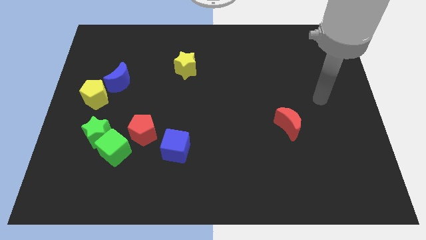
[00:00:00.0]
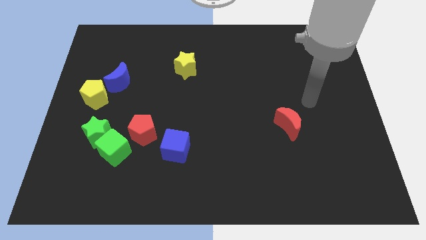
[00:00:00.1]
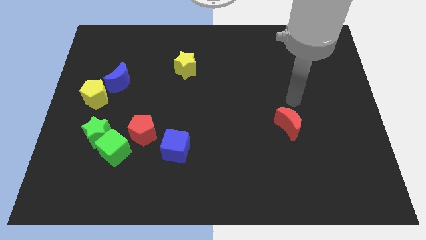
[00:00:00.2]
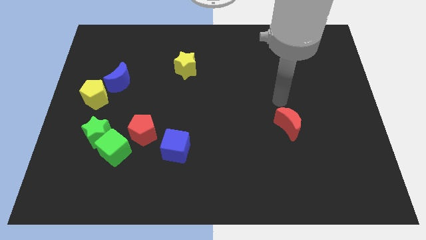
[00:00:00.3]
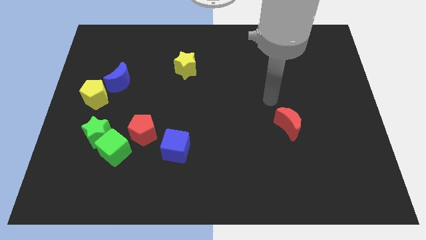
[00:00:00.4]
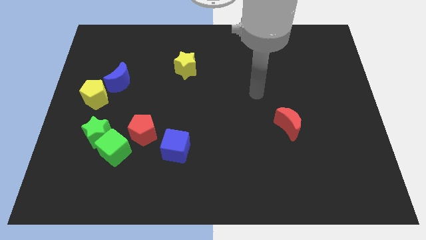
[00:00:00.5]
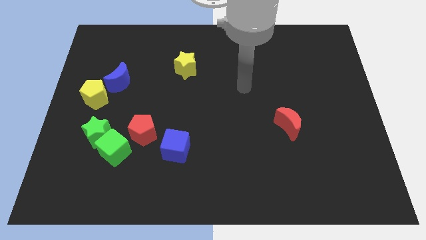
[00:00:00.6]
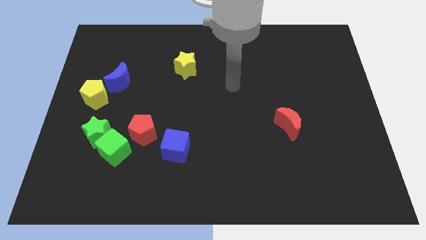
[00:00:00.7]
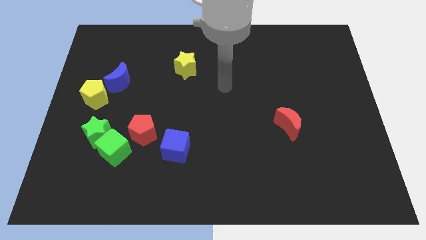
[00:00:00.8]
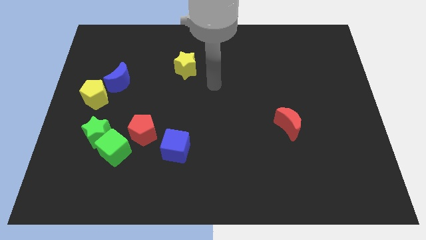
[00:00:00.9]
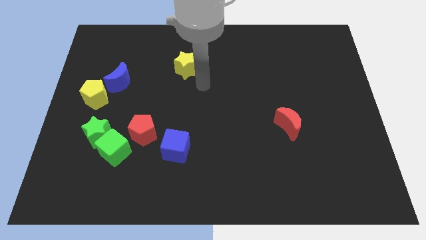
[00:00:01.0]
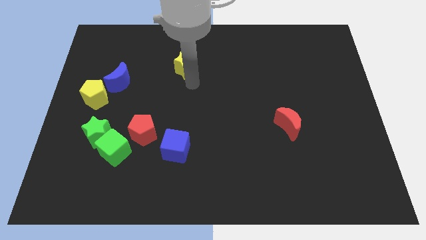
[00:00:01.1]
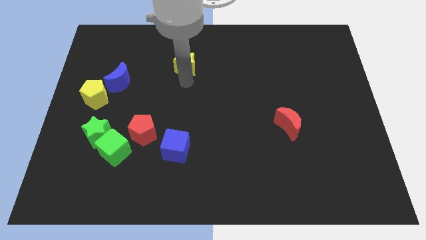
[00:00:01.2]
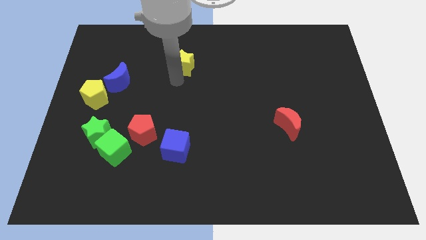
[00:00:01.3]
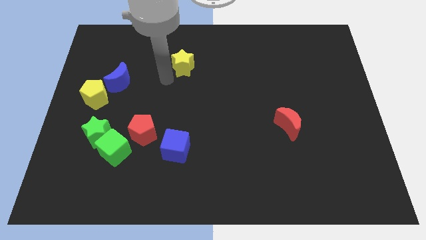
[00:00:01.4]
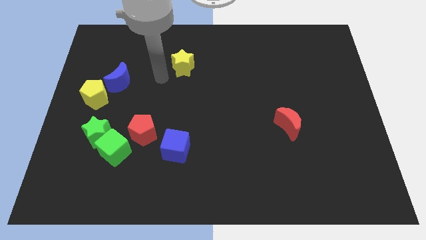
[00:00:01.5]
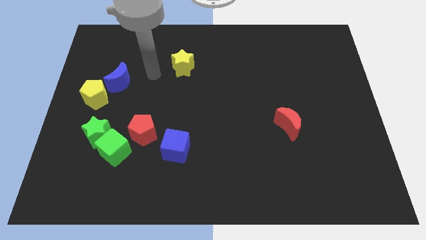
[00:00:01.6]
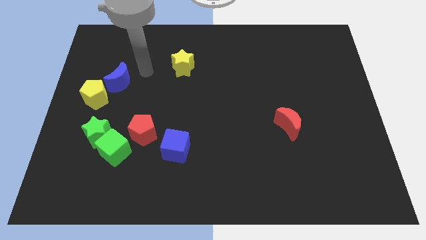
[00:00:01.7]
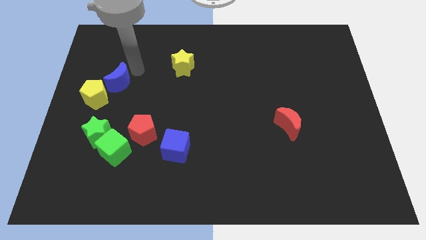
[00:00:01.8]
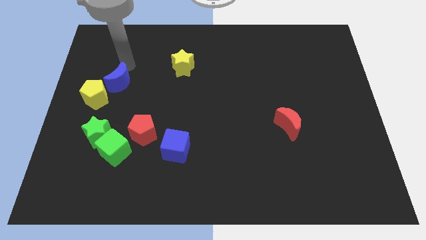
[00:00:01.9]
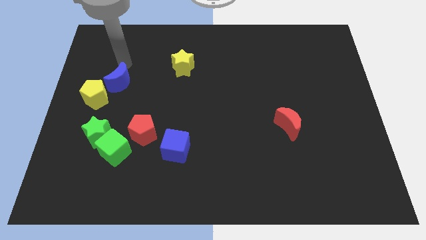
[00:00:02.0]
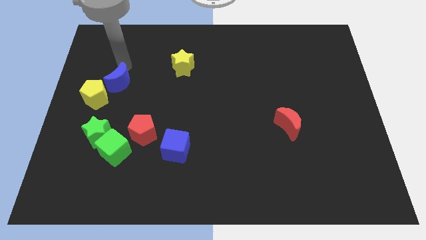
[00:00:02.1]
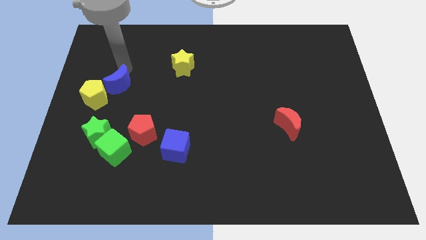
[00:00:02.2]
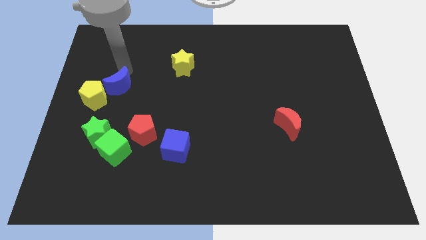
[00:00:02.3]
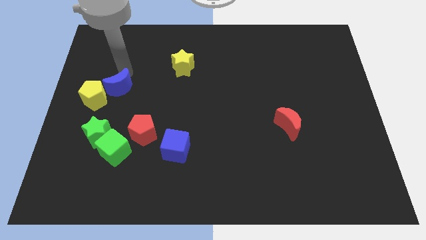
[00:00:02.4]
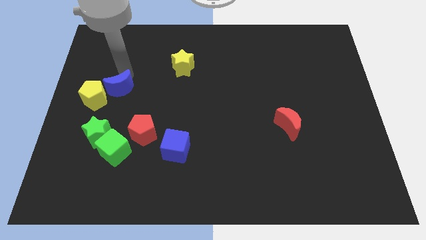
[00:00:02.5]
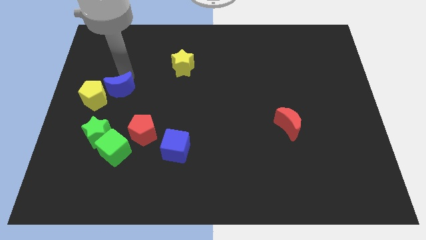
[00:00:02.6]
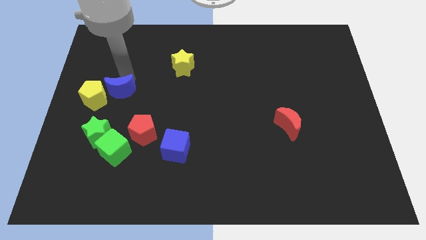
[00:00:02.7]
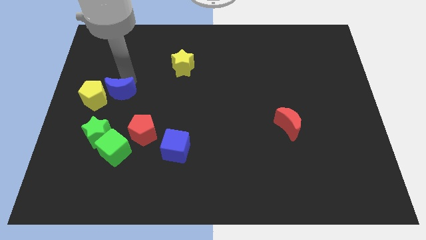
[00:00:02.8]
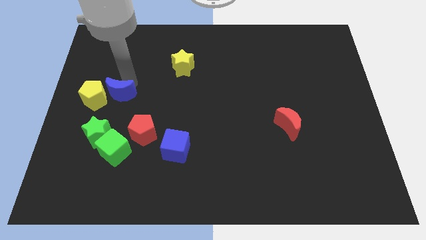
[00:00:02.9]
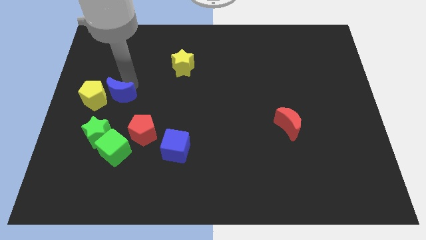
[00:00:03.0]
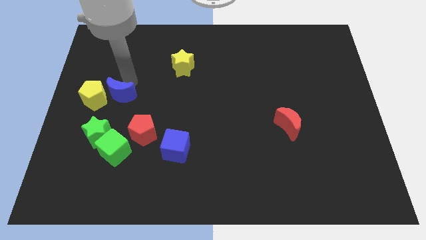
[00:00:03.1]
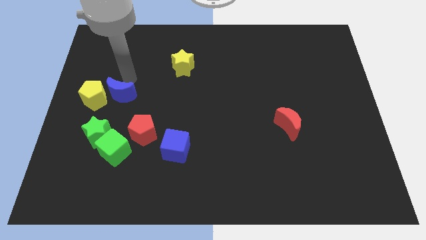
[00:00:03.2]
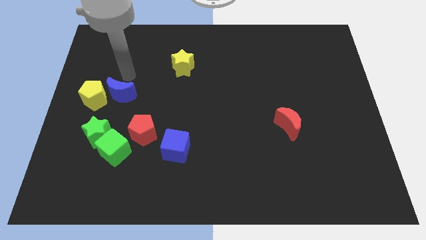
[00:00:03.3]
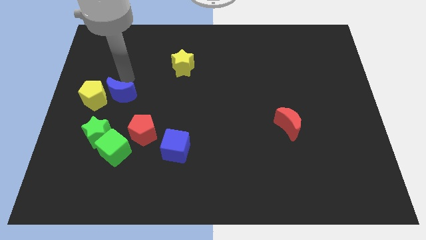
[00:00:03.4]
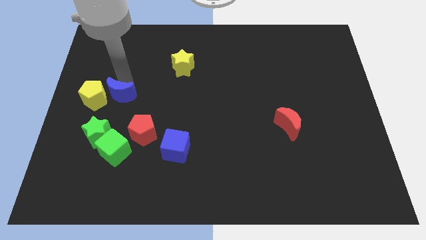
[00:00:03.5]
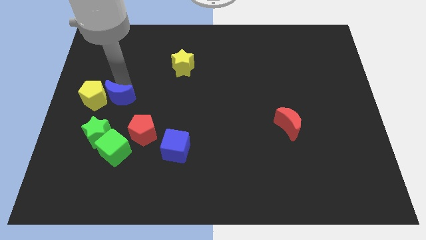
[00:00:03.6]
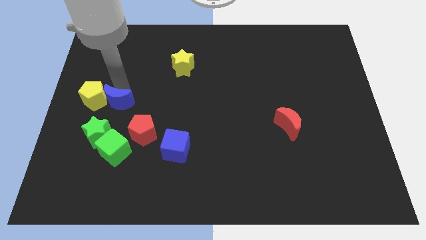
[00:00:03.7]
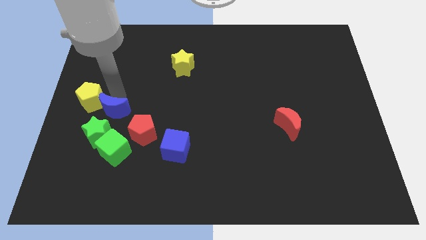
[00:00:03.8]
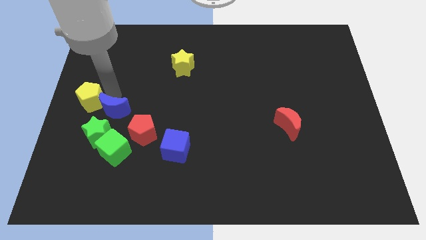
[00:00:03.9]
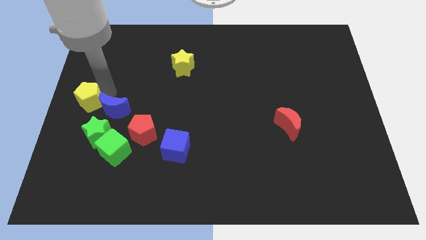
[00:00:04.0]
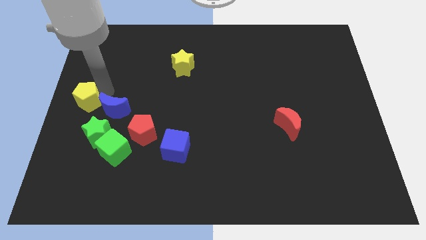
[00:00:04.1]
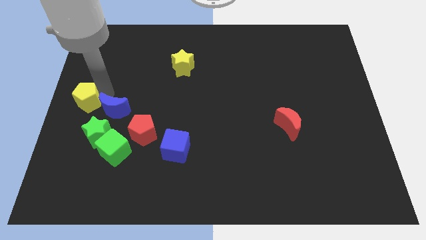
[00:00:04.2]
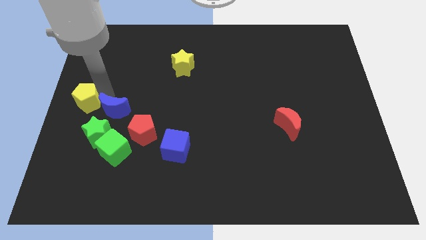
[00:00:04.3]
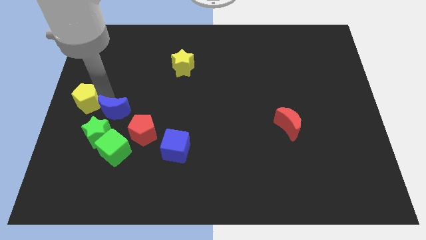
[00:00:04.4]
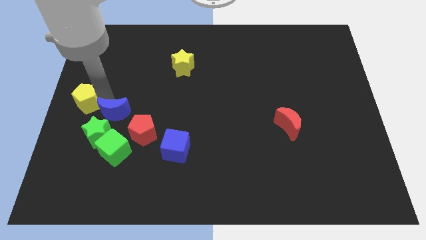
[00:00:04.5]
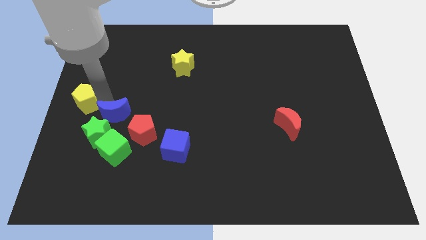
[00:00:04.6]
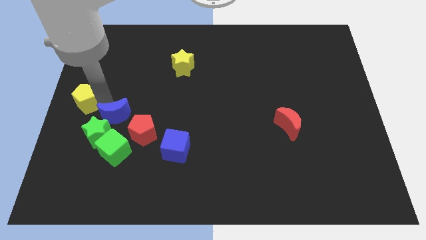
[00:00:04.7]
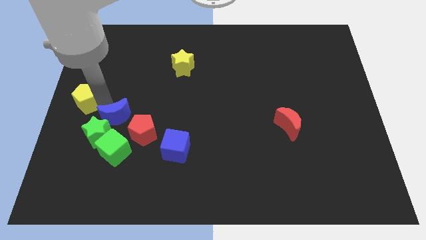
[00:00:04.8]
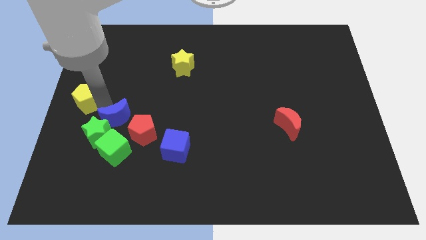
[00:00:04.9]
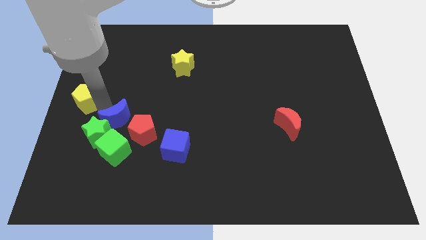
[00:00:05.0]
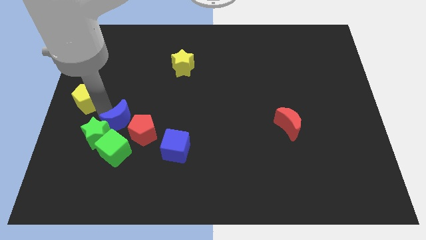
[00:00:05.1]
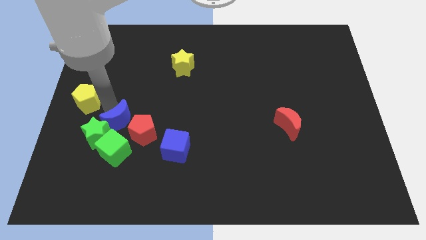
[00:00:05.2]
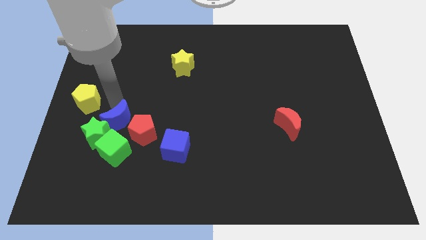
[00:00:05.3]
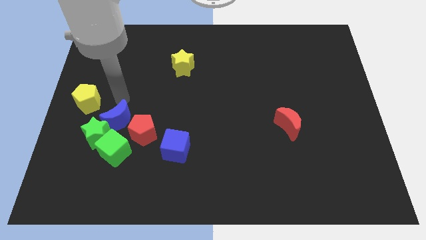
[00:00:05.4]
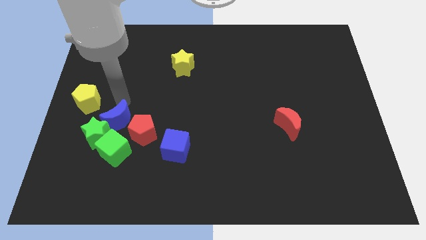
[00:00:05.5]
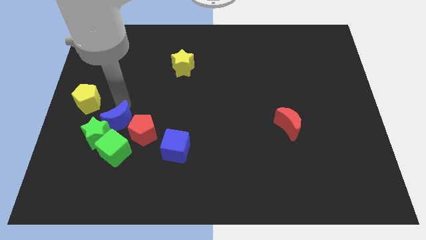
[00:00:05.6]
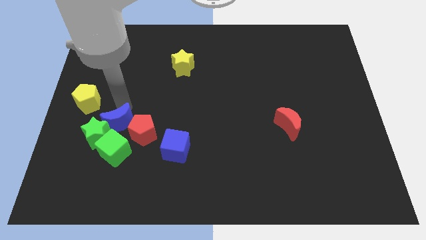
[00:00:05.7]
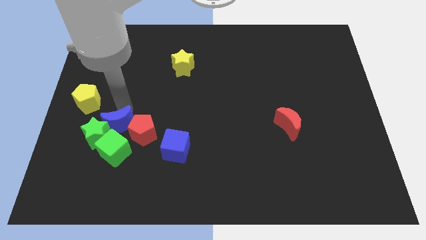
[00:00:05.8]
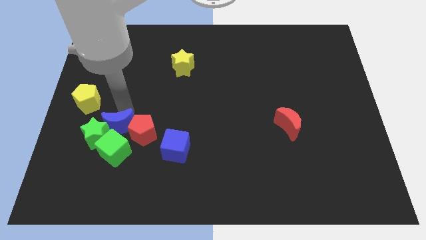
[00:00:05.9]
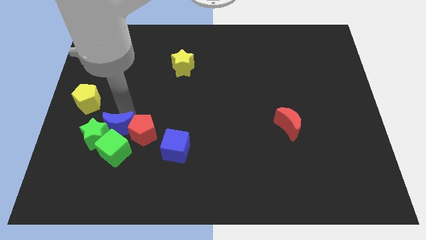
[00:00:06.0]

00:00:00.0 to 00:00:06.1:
push the blue moon close to the green cube

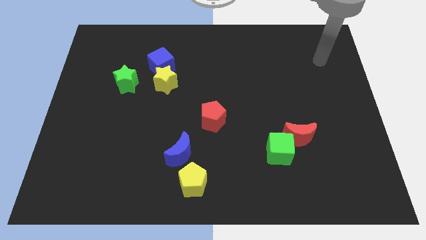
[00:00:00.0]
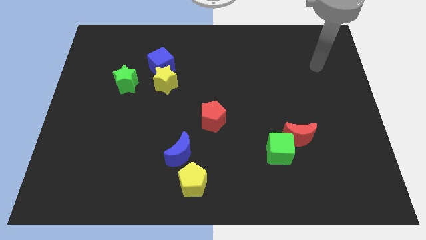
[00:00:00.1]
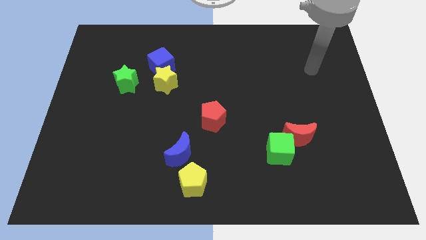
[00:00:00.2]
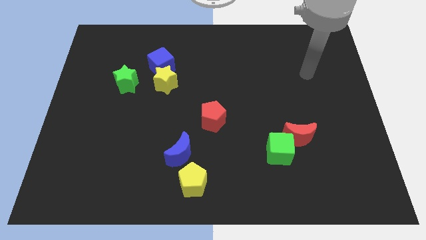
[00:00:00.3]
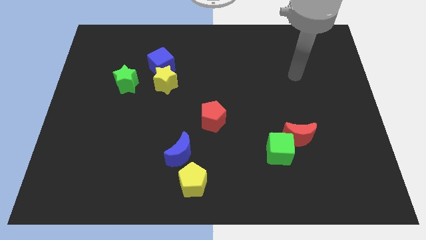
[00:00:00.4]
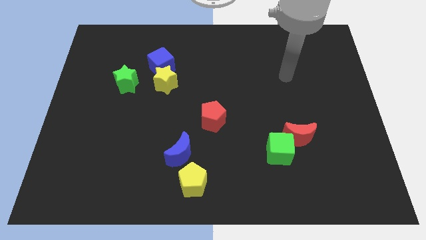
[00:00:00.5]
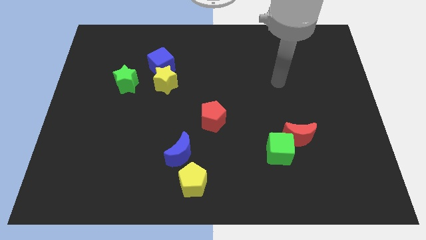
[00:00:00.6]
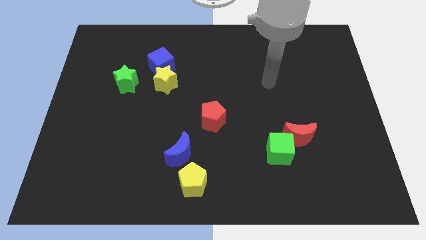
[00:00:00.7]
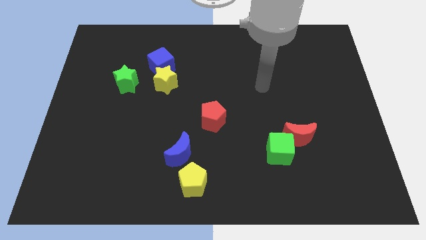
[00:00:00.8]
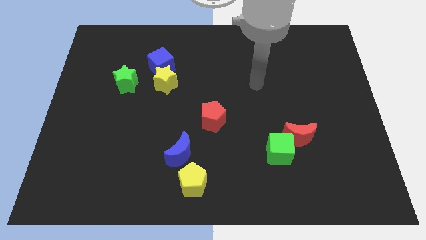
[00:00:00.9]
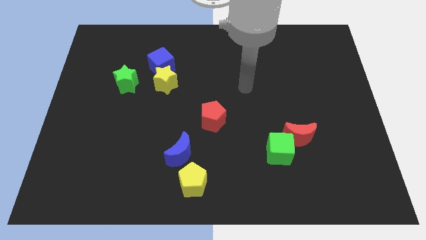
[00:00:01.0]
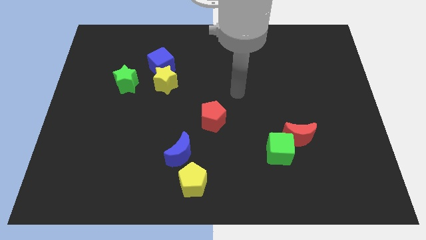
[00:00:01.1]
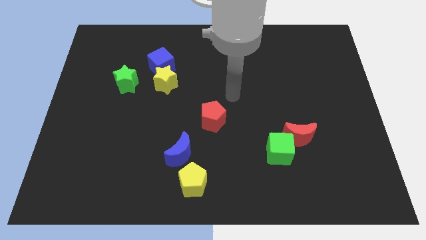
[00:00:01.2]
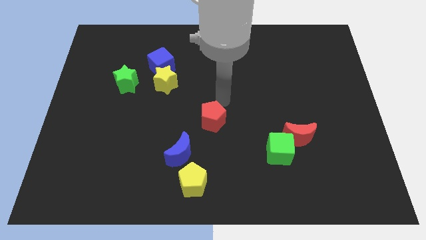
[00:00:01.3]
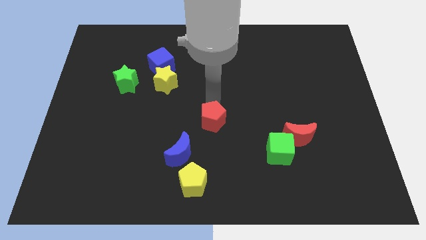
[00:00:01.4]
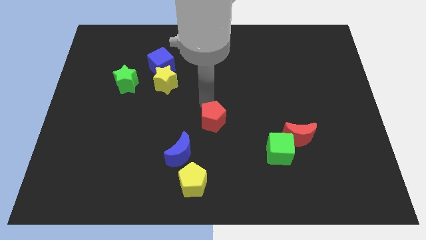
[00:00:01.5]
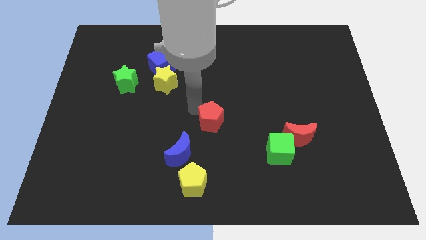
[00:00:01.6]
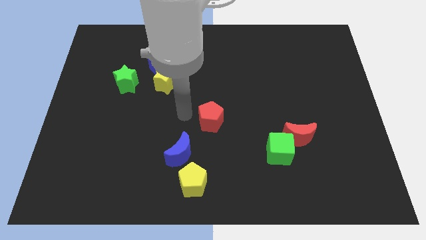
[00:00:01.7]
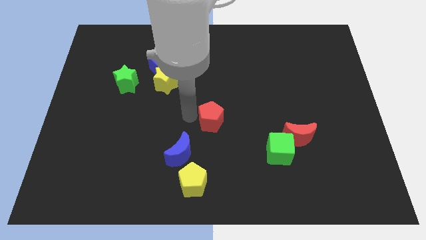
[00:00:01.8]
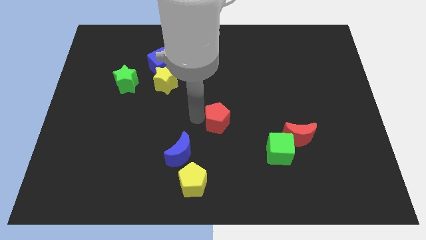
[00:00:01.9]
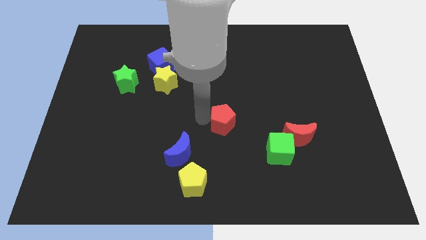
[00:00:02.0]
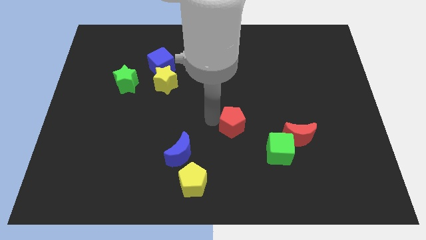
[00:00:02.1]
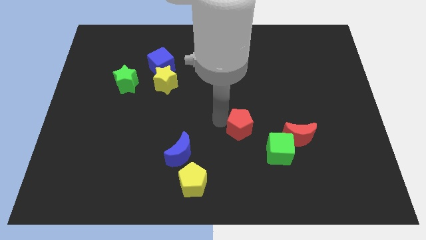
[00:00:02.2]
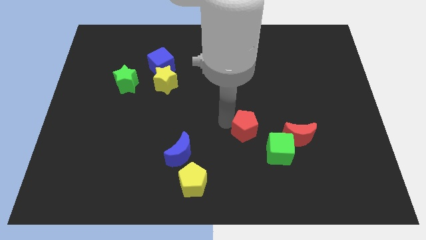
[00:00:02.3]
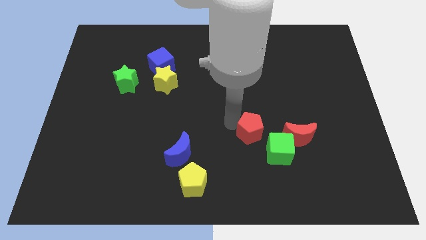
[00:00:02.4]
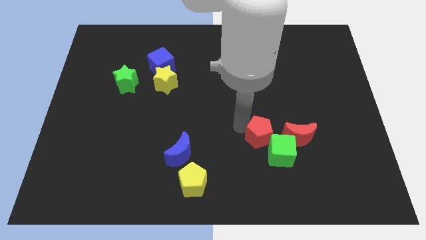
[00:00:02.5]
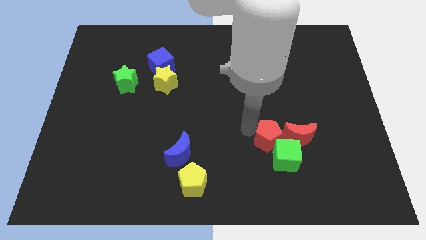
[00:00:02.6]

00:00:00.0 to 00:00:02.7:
slide the red pentagon next to the green cube
